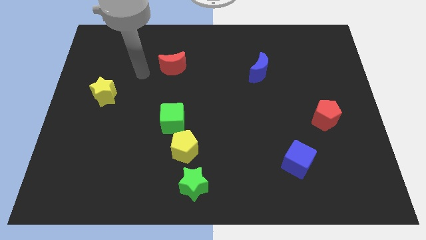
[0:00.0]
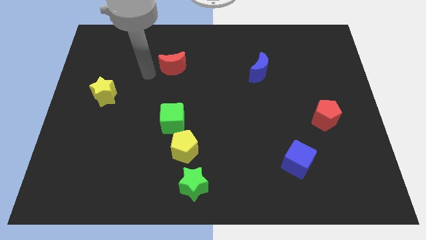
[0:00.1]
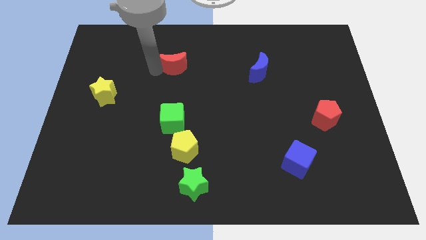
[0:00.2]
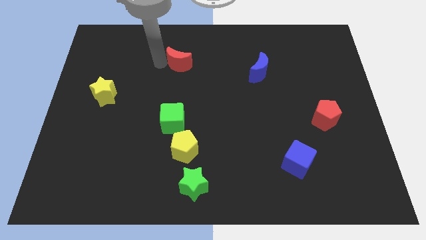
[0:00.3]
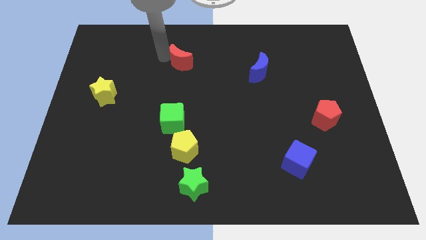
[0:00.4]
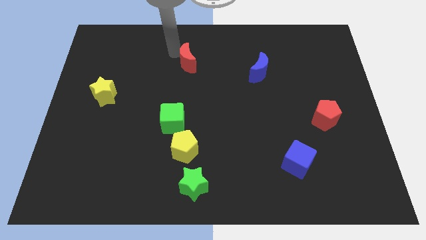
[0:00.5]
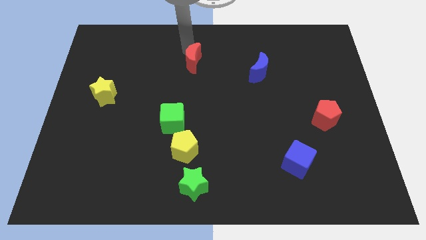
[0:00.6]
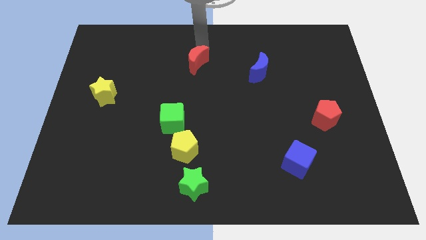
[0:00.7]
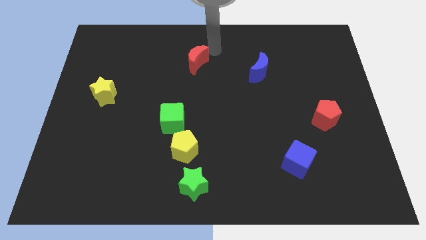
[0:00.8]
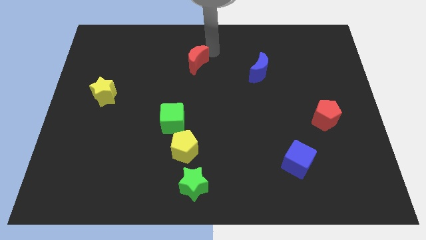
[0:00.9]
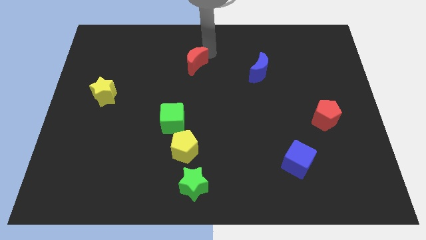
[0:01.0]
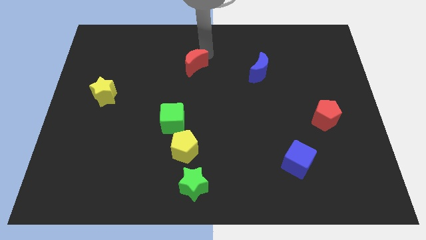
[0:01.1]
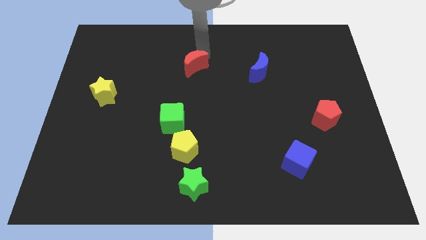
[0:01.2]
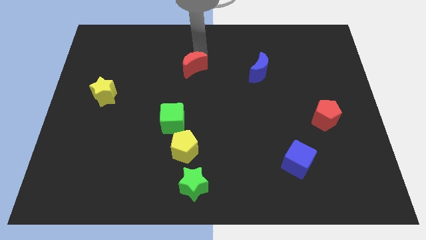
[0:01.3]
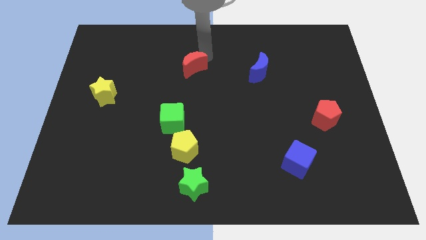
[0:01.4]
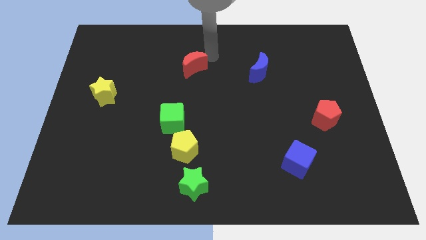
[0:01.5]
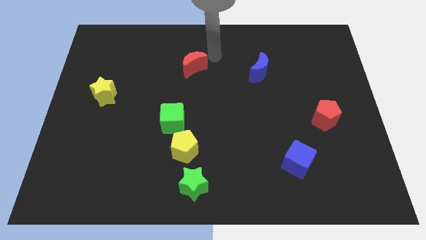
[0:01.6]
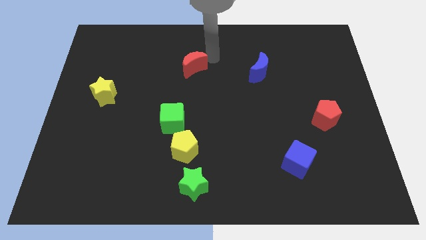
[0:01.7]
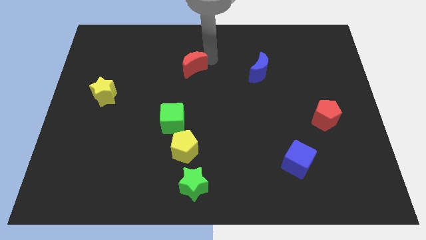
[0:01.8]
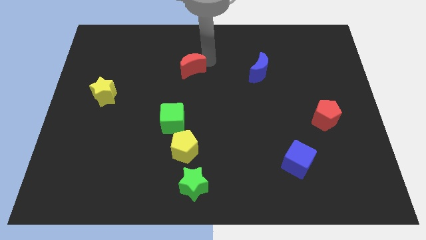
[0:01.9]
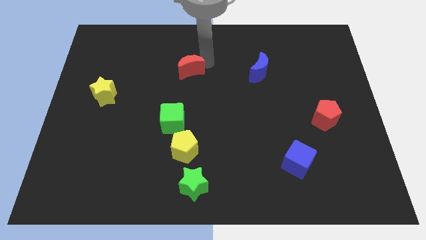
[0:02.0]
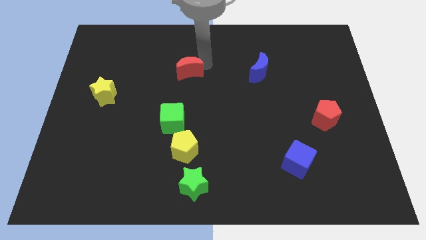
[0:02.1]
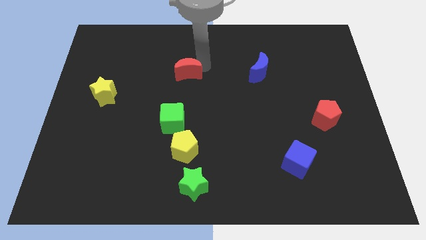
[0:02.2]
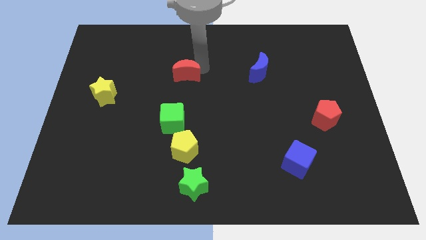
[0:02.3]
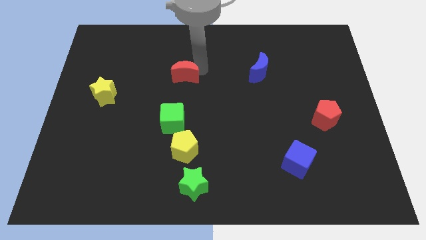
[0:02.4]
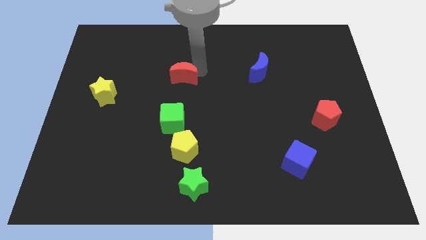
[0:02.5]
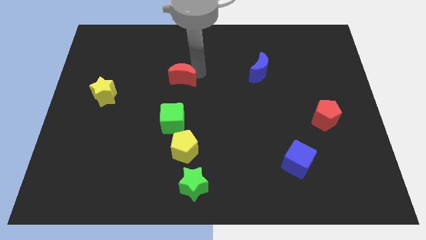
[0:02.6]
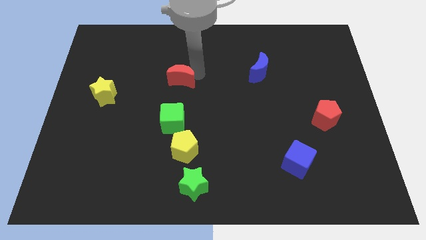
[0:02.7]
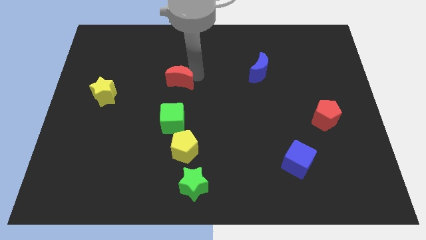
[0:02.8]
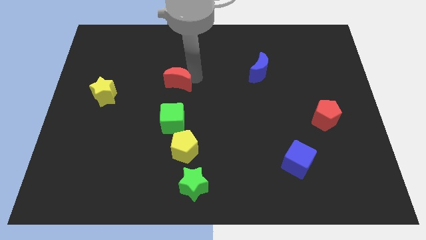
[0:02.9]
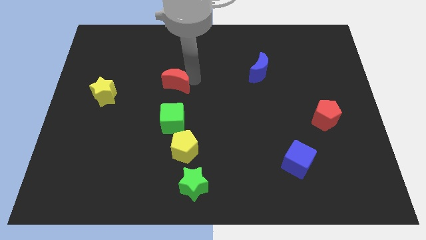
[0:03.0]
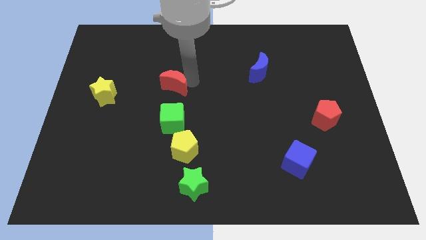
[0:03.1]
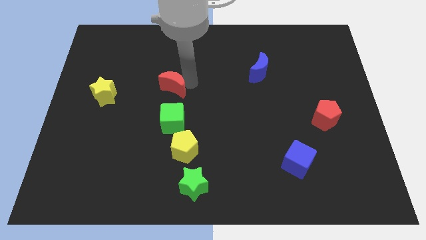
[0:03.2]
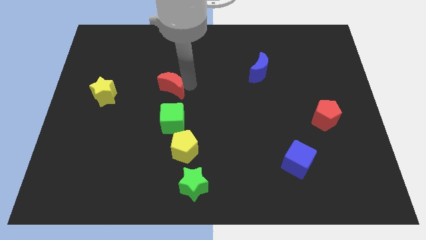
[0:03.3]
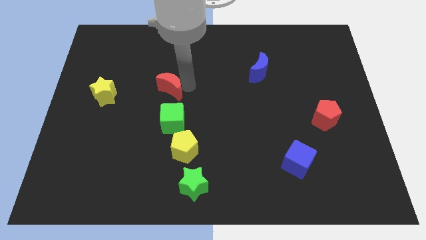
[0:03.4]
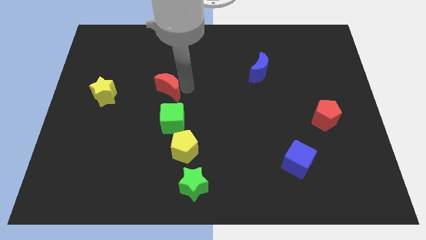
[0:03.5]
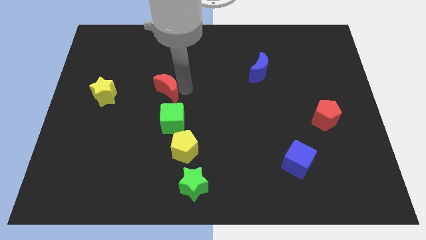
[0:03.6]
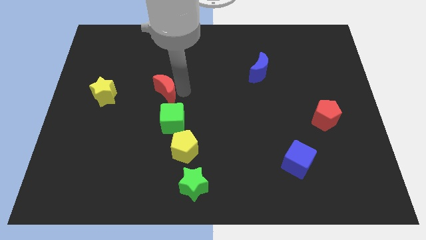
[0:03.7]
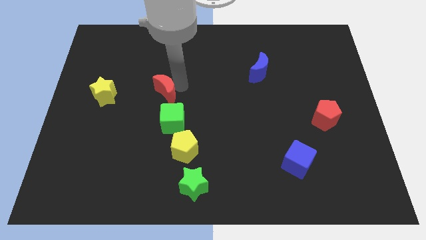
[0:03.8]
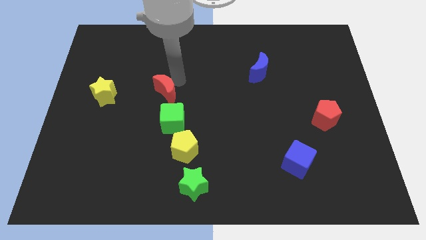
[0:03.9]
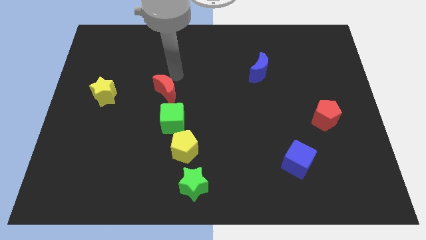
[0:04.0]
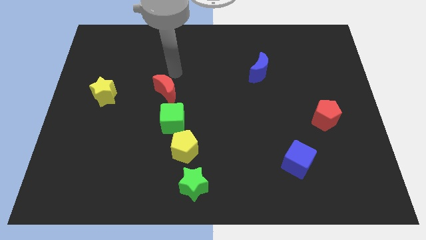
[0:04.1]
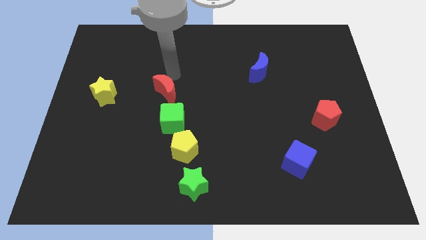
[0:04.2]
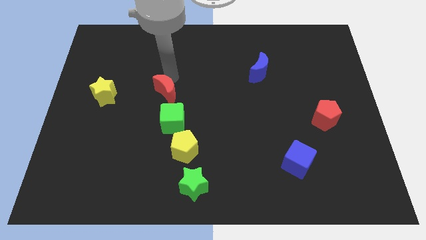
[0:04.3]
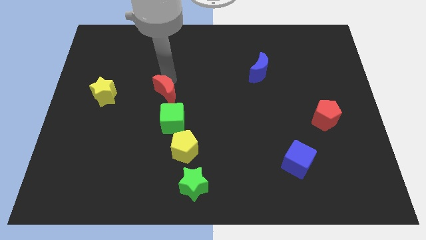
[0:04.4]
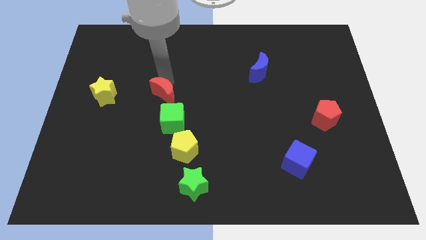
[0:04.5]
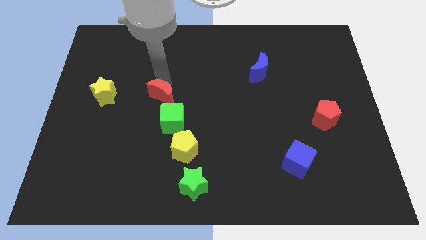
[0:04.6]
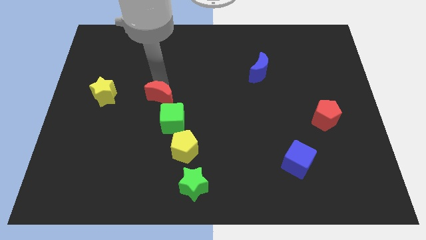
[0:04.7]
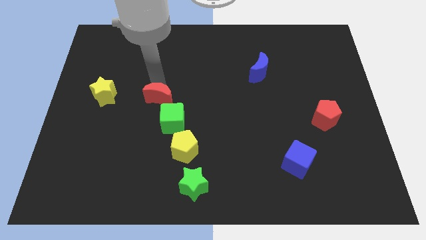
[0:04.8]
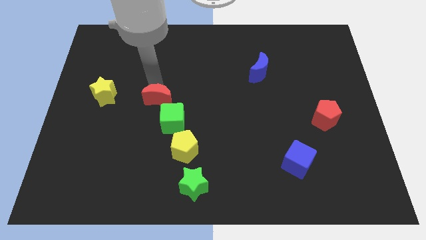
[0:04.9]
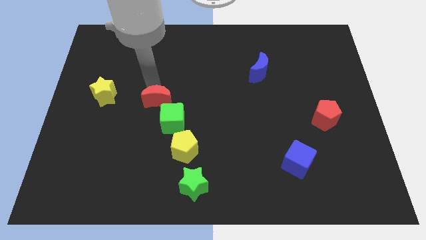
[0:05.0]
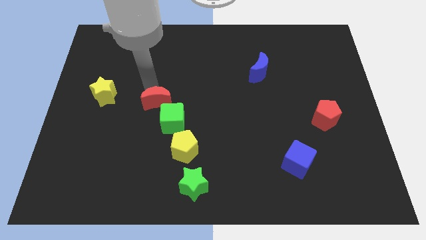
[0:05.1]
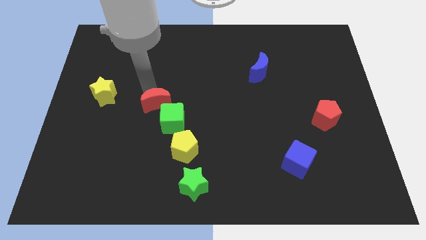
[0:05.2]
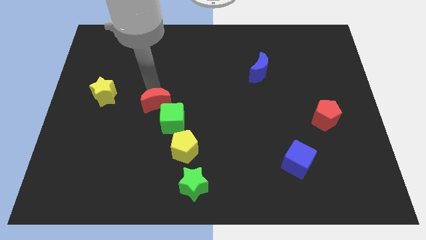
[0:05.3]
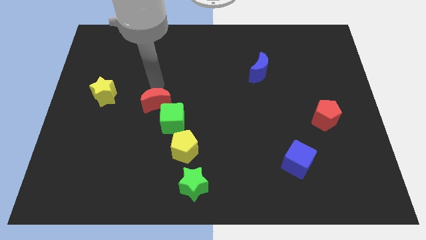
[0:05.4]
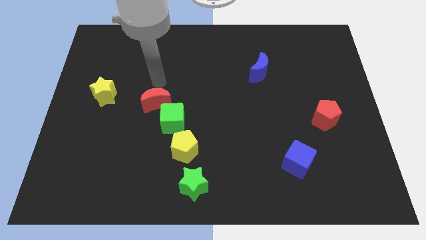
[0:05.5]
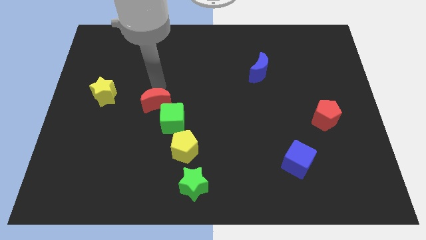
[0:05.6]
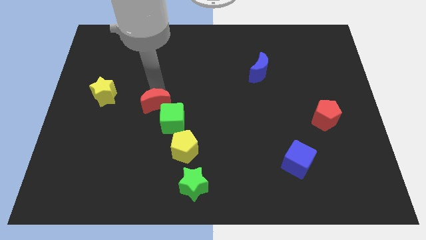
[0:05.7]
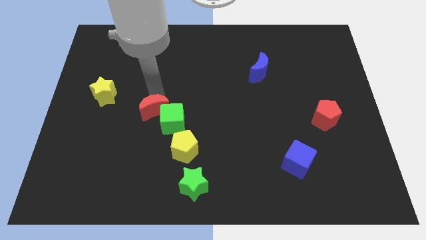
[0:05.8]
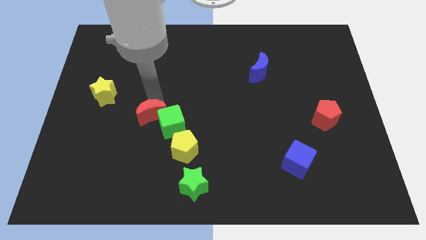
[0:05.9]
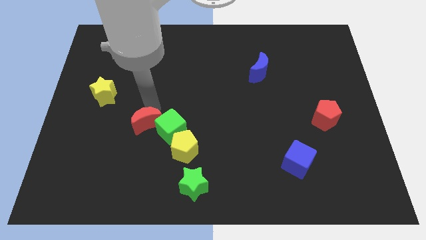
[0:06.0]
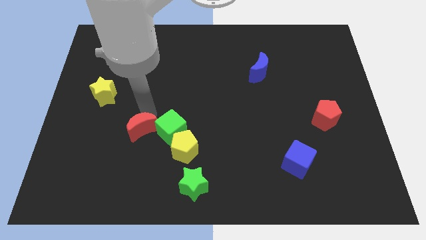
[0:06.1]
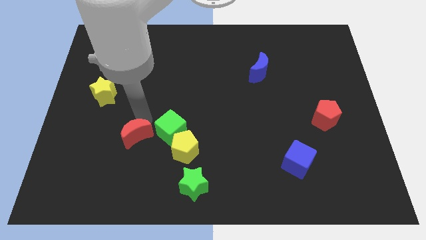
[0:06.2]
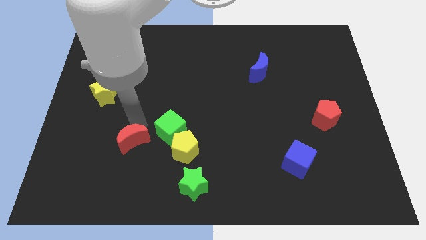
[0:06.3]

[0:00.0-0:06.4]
slide the red moon down

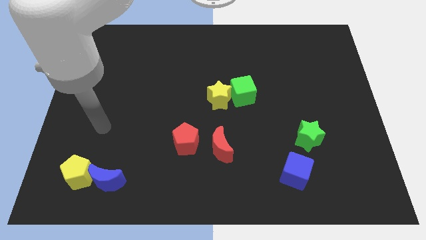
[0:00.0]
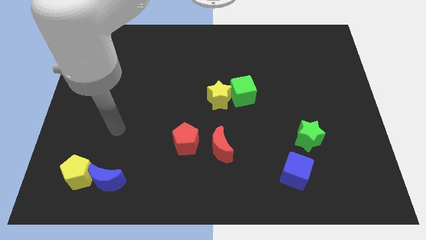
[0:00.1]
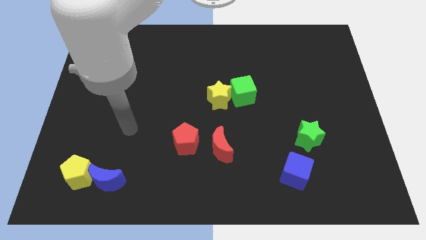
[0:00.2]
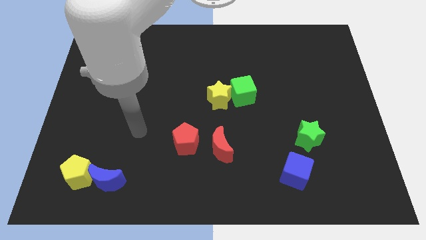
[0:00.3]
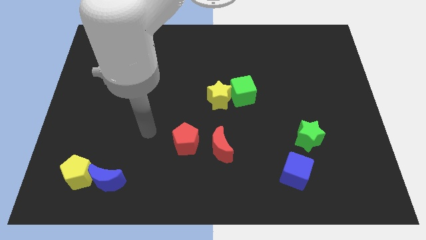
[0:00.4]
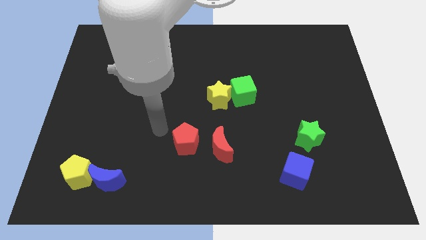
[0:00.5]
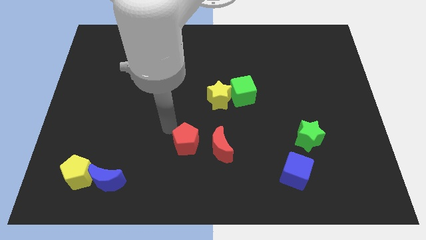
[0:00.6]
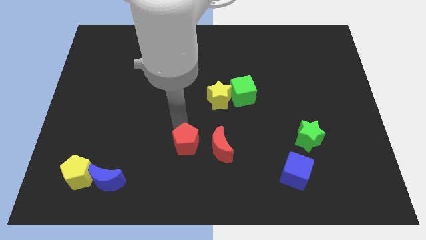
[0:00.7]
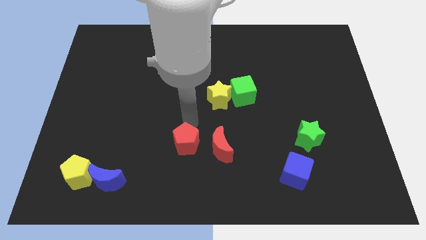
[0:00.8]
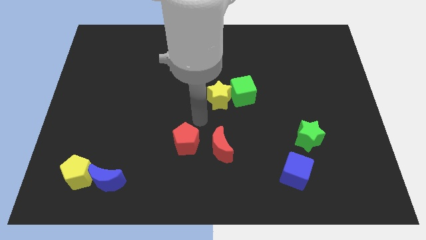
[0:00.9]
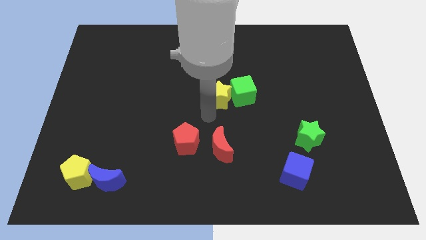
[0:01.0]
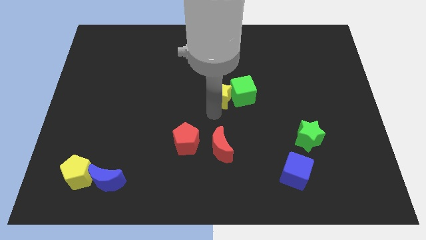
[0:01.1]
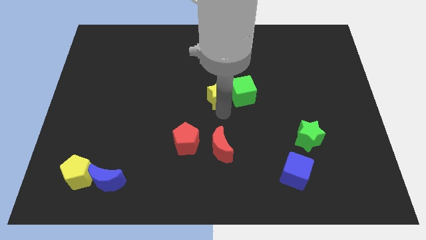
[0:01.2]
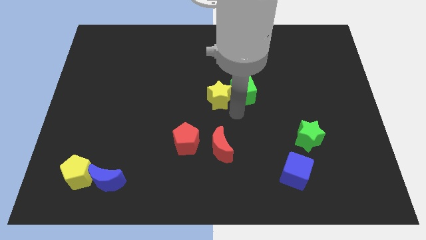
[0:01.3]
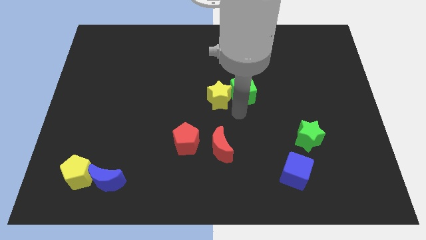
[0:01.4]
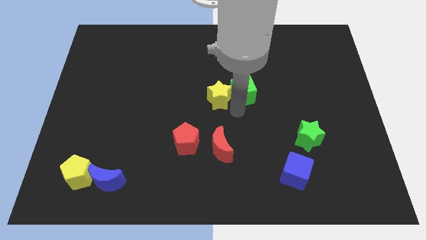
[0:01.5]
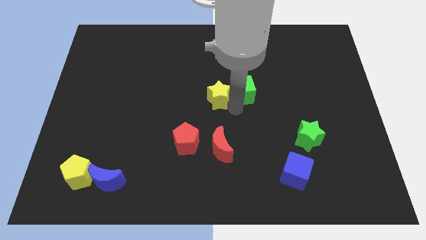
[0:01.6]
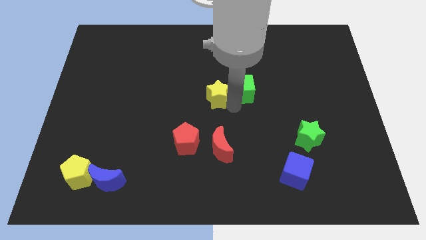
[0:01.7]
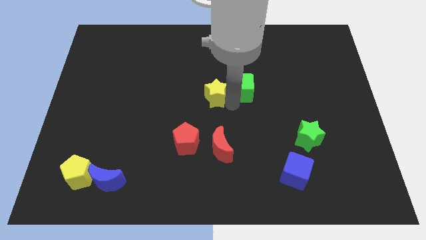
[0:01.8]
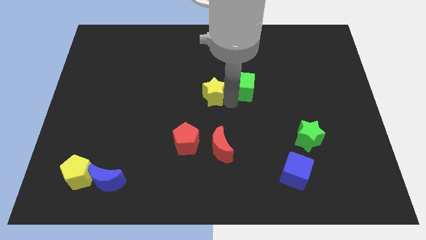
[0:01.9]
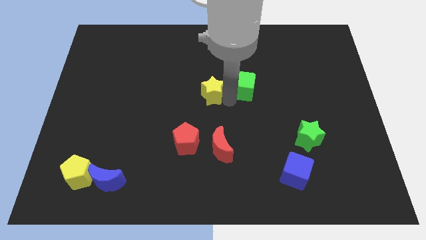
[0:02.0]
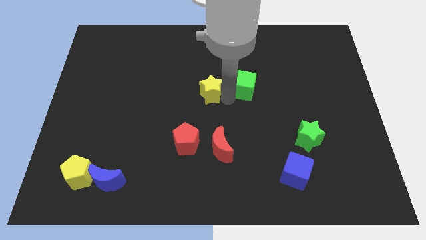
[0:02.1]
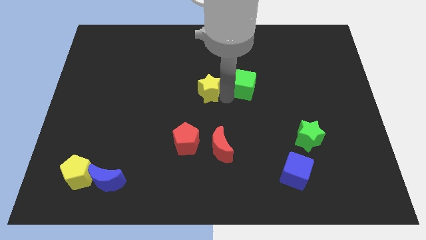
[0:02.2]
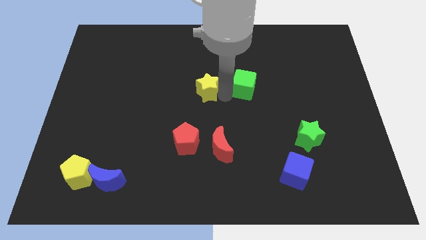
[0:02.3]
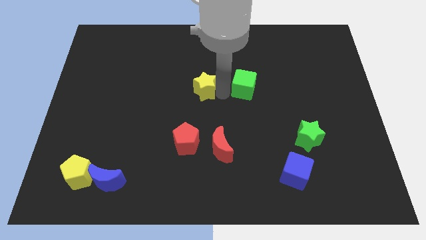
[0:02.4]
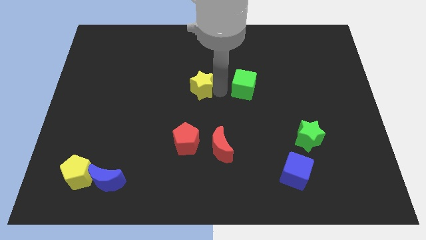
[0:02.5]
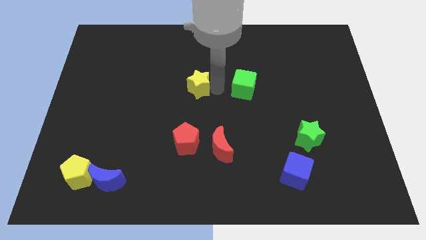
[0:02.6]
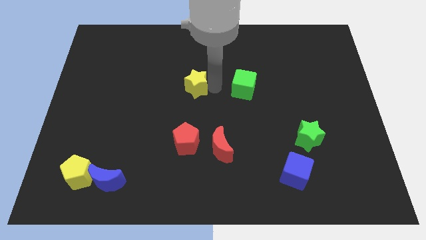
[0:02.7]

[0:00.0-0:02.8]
move the yellow star a bit up and to the left
